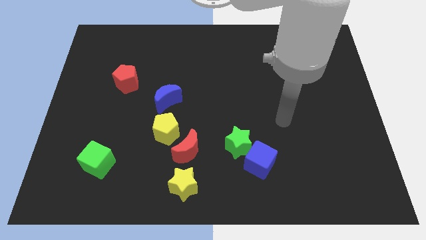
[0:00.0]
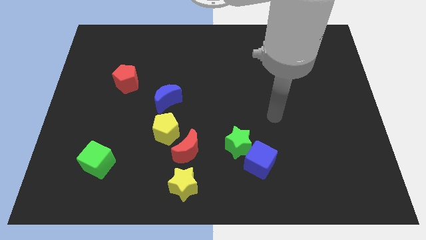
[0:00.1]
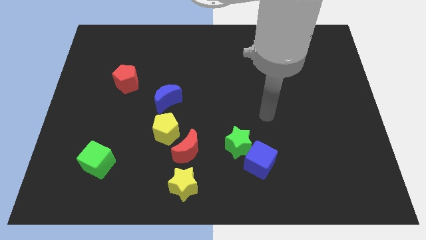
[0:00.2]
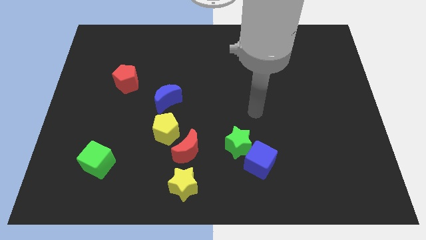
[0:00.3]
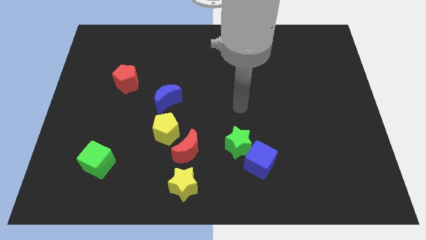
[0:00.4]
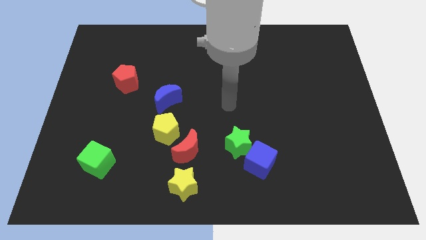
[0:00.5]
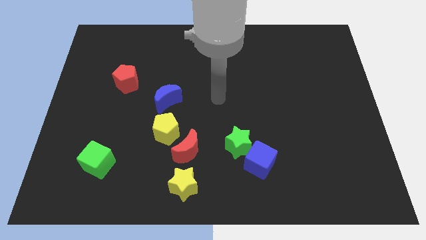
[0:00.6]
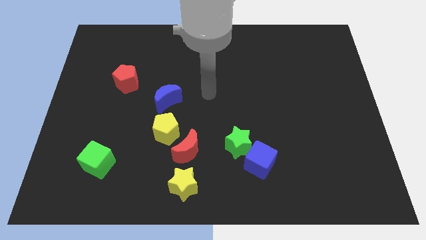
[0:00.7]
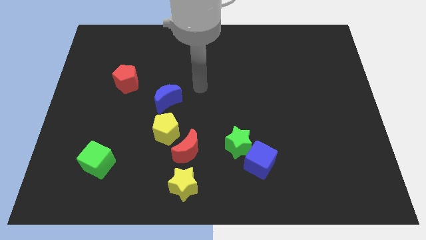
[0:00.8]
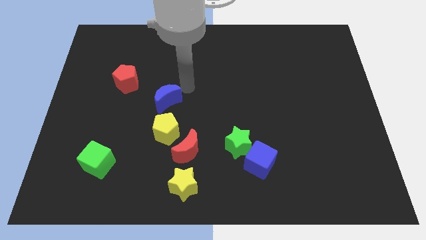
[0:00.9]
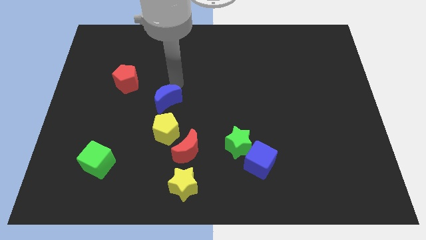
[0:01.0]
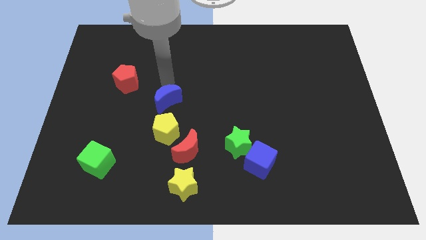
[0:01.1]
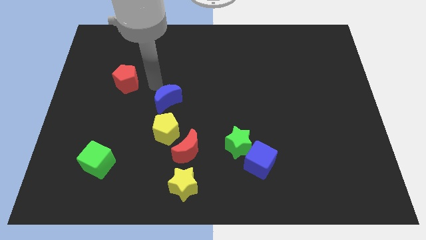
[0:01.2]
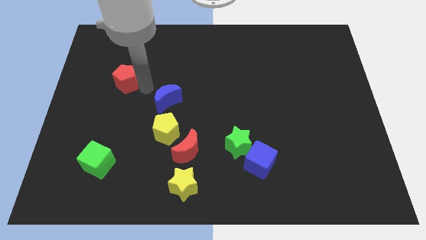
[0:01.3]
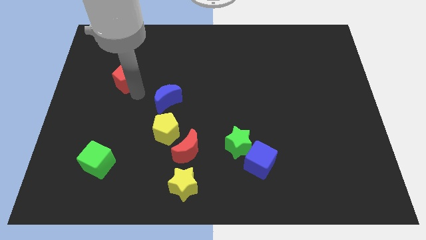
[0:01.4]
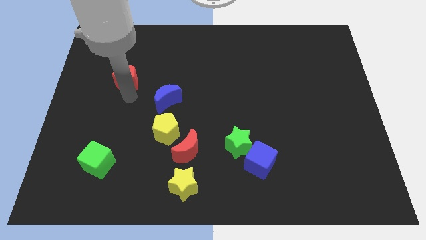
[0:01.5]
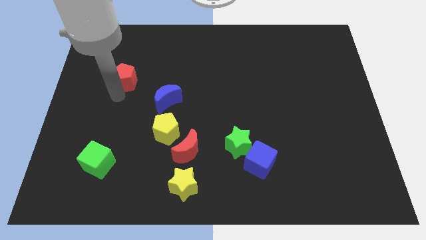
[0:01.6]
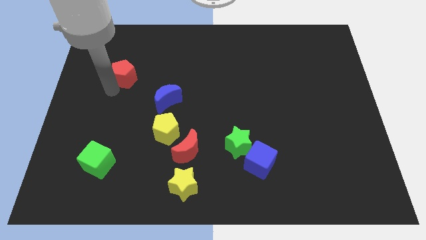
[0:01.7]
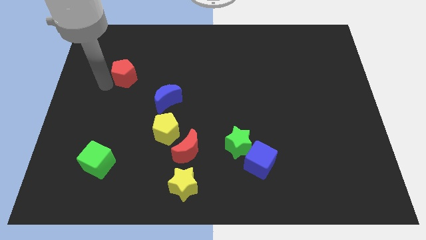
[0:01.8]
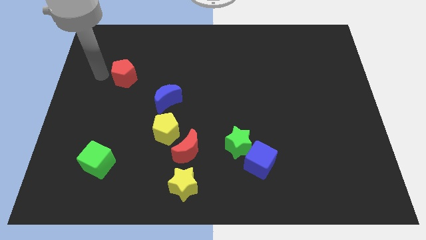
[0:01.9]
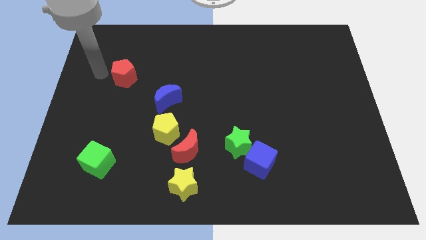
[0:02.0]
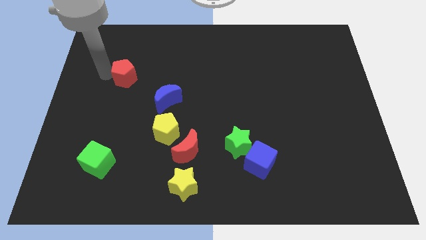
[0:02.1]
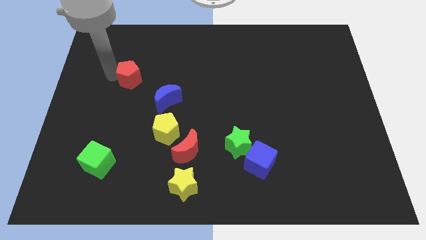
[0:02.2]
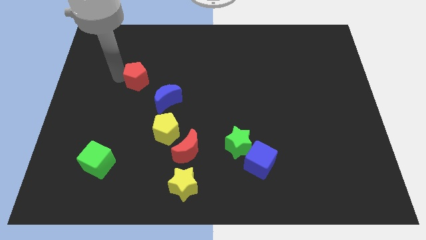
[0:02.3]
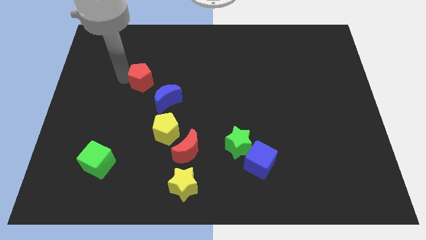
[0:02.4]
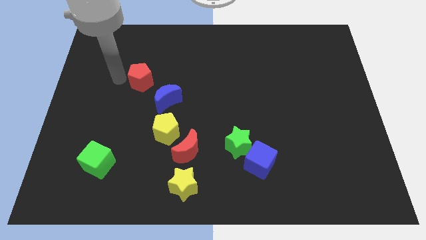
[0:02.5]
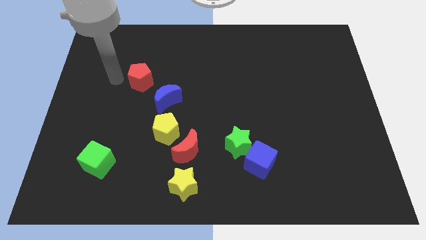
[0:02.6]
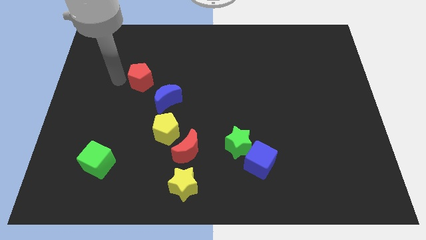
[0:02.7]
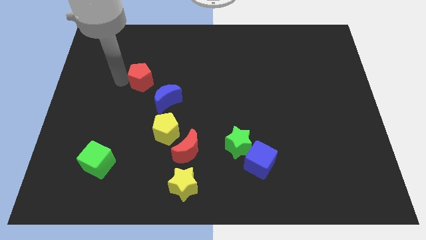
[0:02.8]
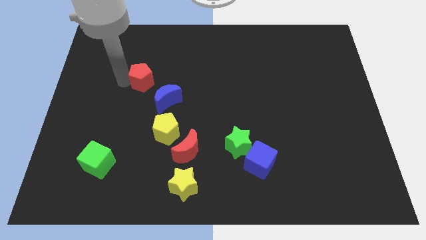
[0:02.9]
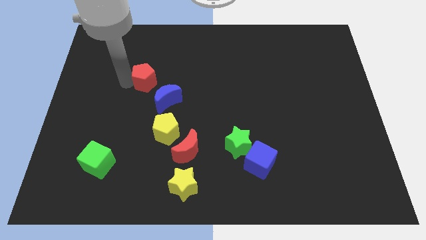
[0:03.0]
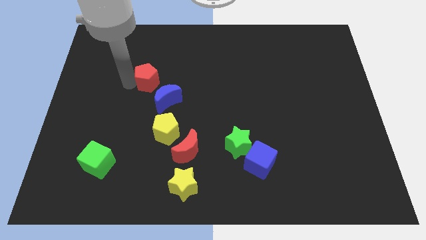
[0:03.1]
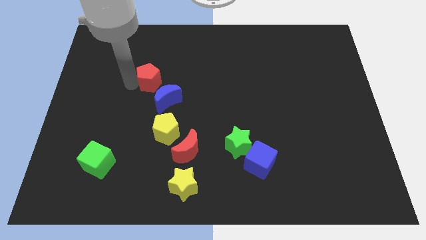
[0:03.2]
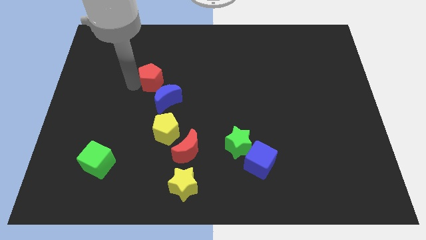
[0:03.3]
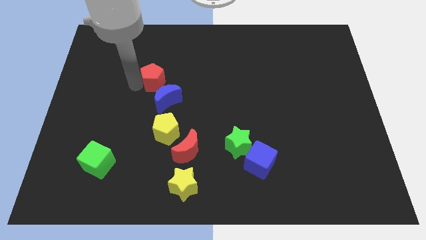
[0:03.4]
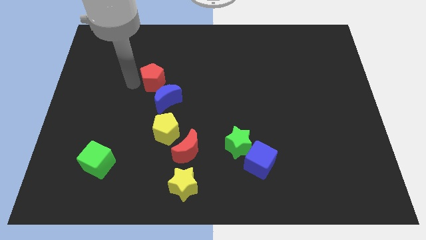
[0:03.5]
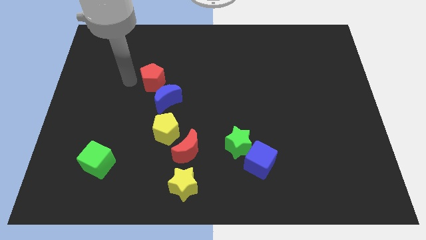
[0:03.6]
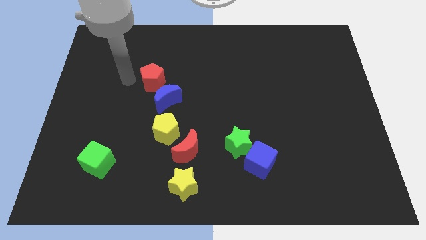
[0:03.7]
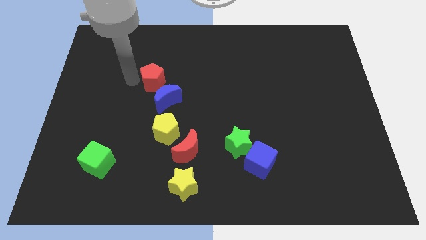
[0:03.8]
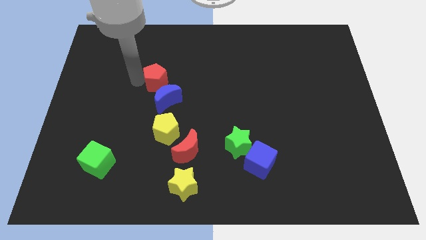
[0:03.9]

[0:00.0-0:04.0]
push the red pentagon a little bit to the right

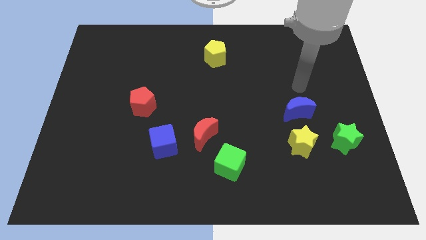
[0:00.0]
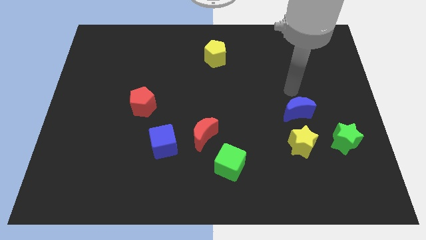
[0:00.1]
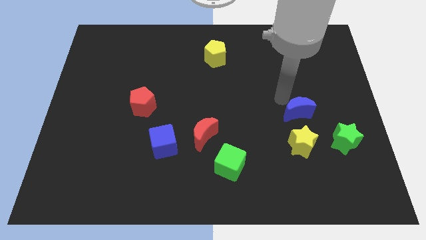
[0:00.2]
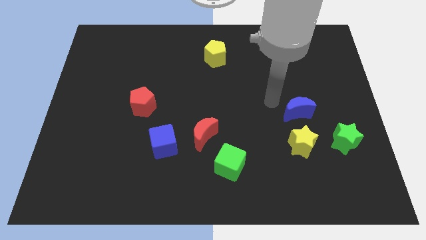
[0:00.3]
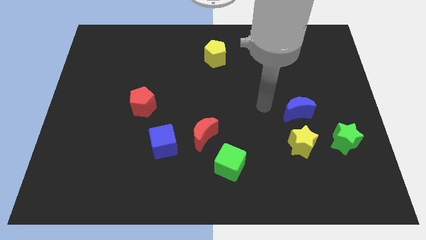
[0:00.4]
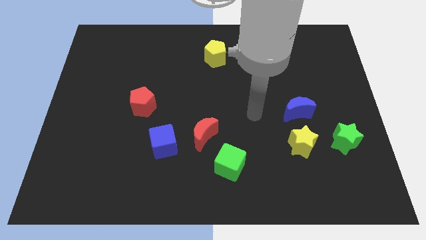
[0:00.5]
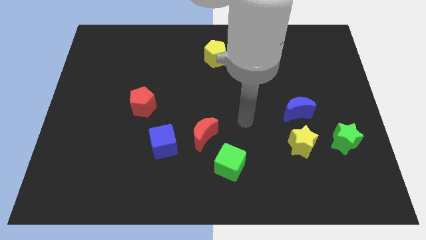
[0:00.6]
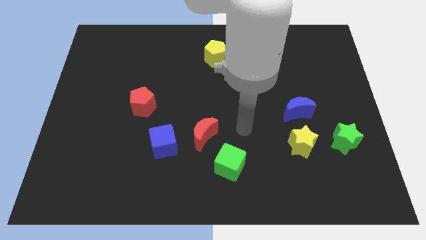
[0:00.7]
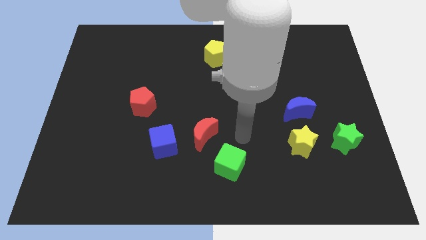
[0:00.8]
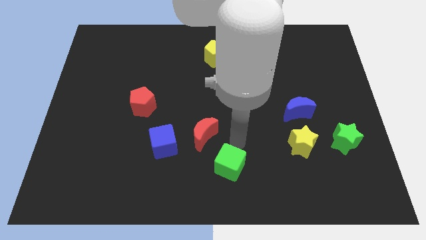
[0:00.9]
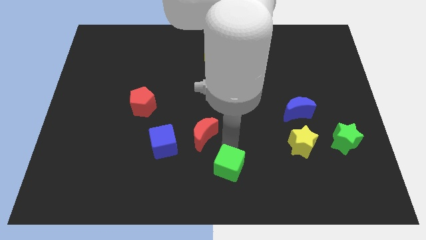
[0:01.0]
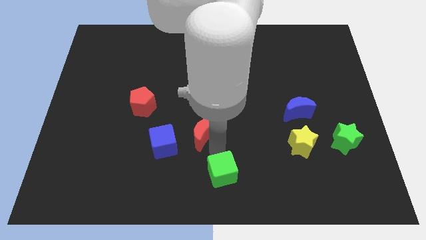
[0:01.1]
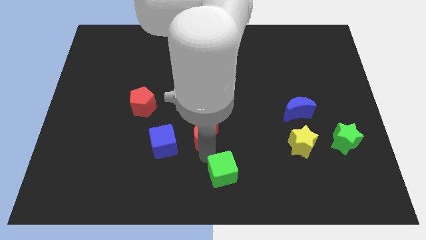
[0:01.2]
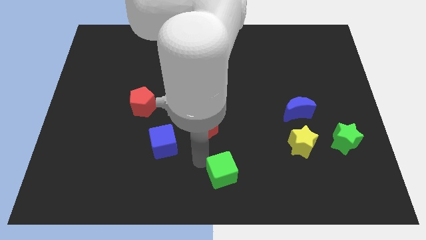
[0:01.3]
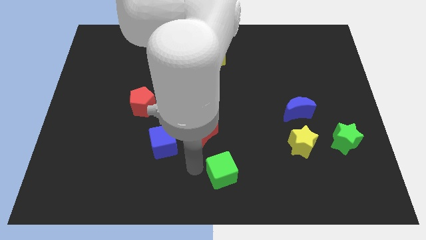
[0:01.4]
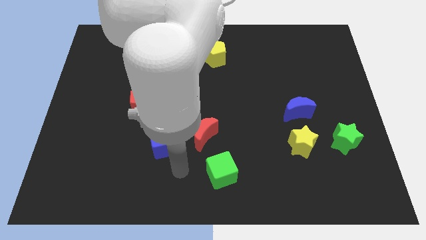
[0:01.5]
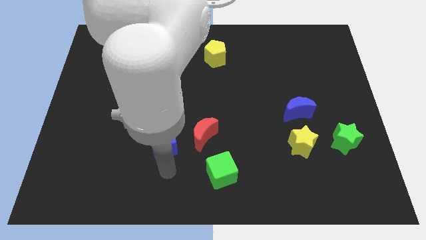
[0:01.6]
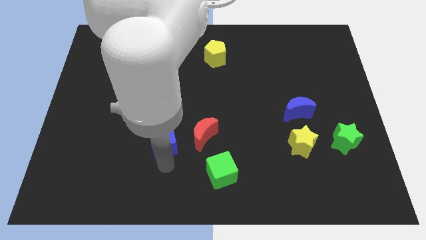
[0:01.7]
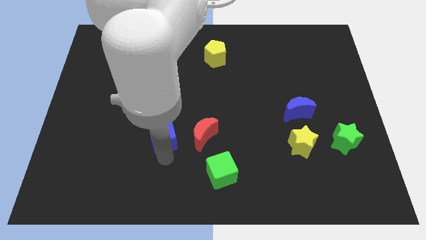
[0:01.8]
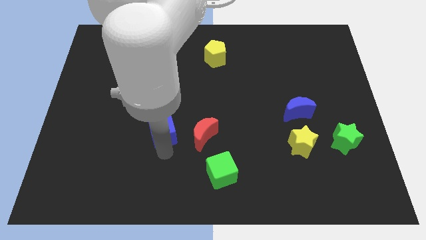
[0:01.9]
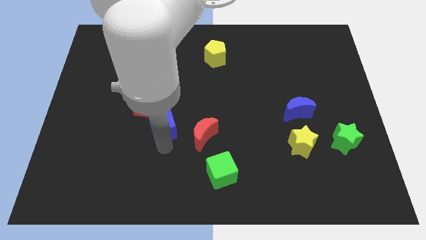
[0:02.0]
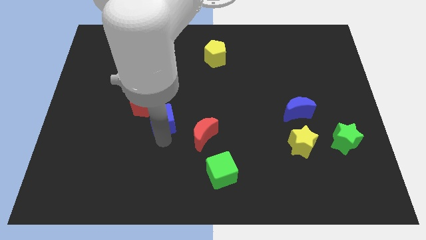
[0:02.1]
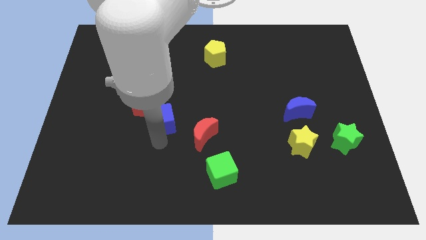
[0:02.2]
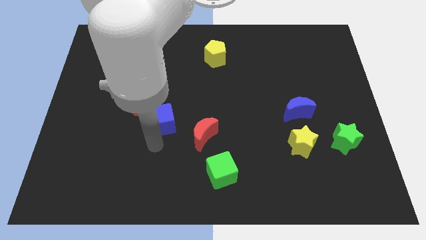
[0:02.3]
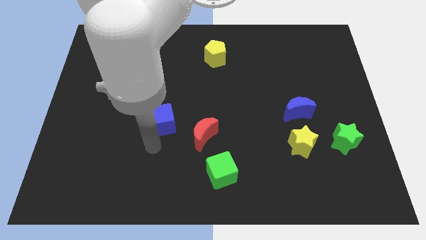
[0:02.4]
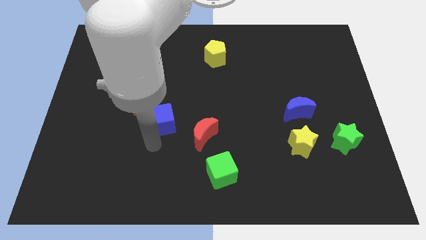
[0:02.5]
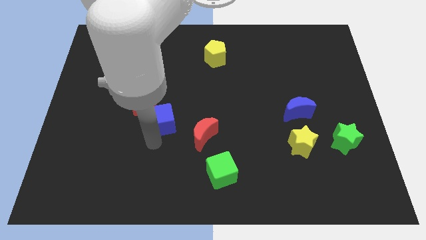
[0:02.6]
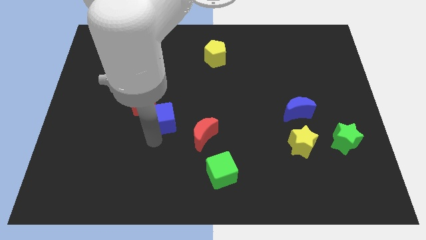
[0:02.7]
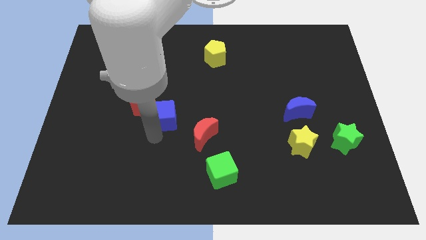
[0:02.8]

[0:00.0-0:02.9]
slide the blue cube upwards a little

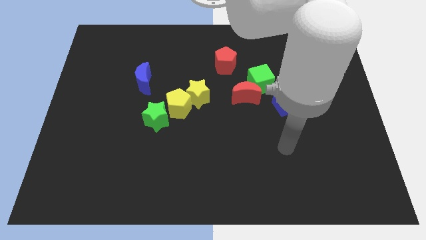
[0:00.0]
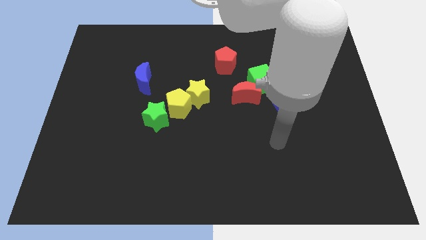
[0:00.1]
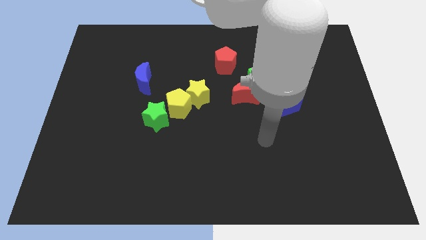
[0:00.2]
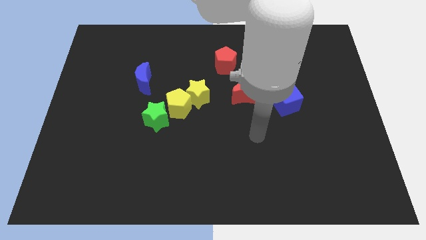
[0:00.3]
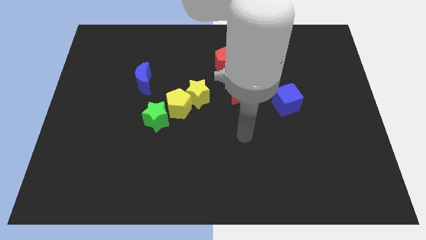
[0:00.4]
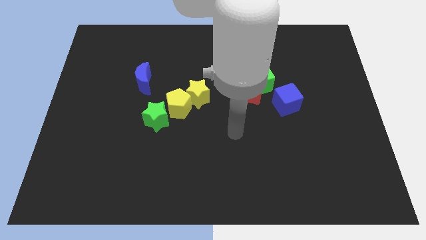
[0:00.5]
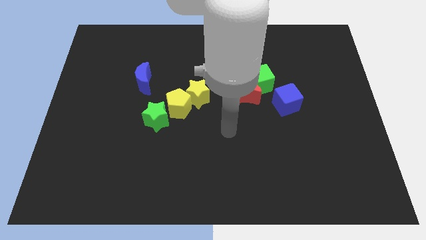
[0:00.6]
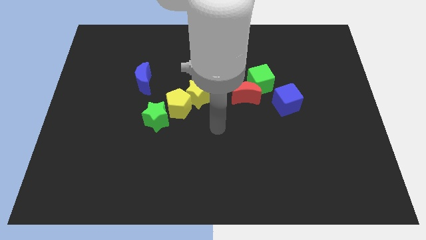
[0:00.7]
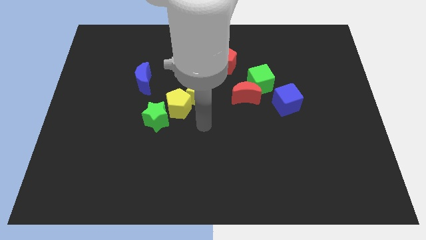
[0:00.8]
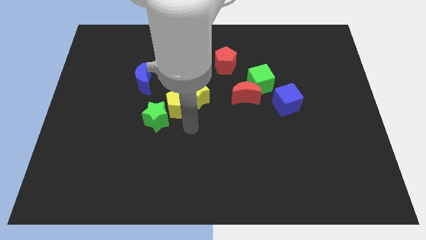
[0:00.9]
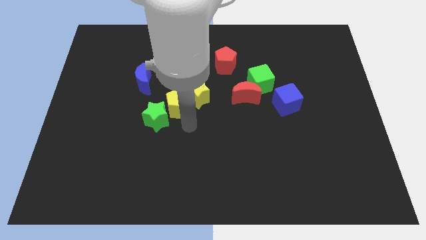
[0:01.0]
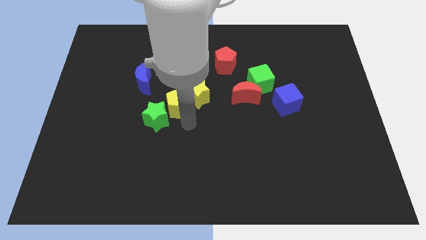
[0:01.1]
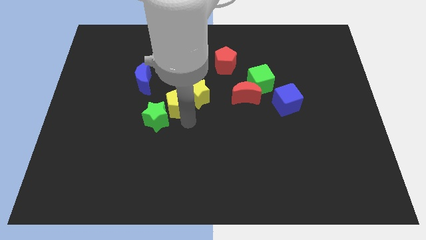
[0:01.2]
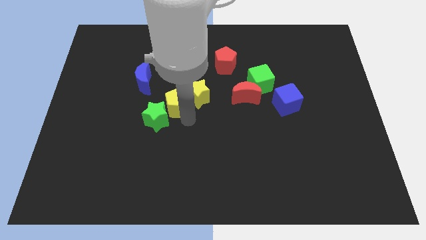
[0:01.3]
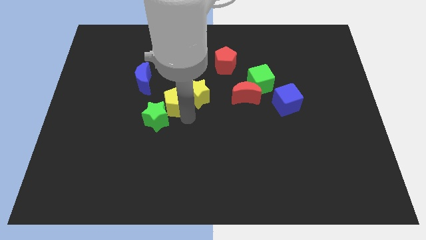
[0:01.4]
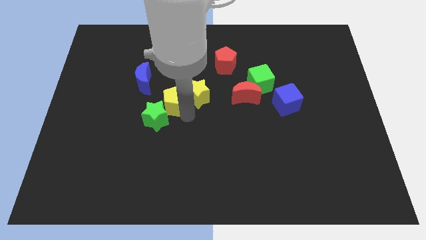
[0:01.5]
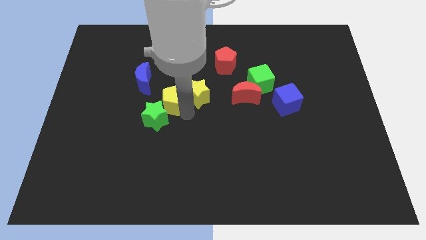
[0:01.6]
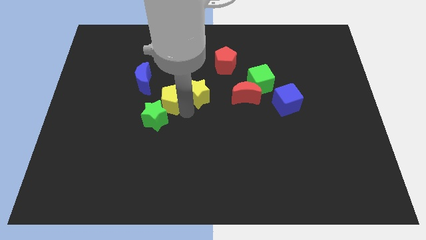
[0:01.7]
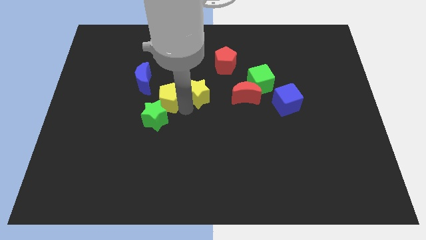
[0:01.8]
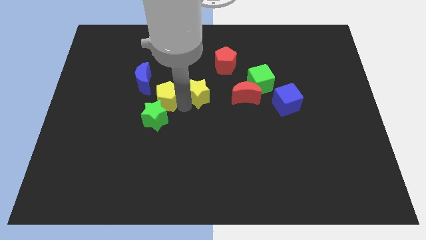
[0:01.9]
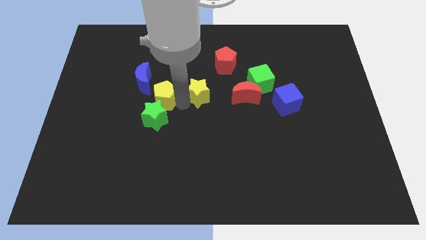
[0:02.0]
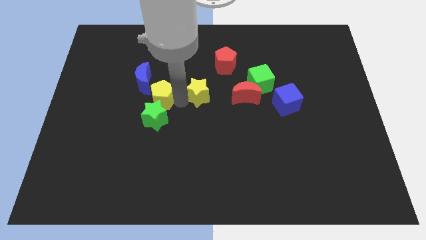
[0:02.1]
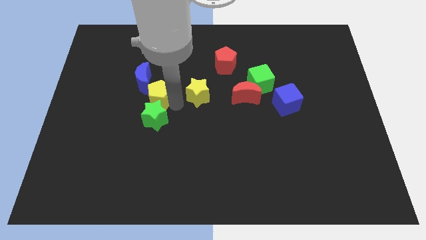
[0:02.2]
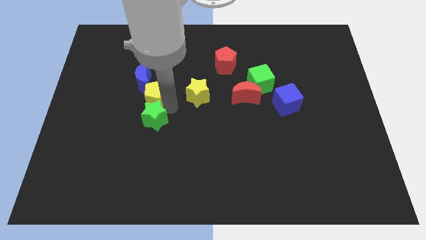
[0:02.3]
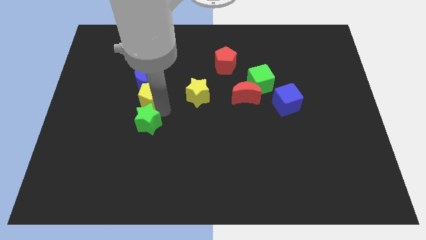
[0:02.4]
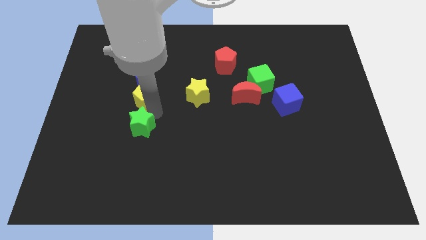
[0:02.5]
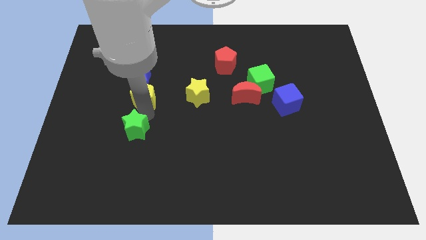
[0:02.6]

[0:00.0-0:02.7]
slightly move the yellow pentagon diagonally up and to the left
